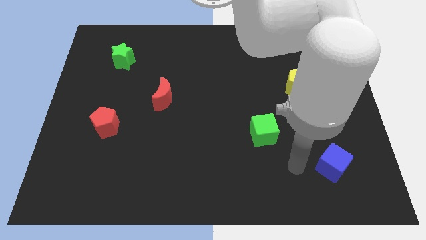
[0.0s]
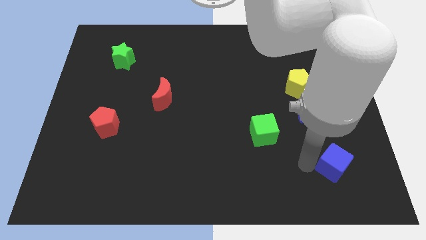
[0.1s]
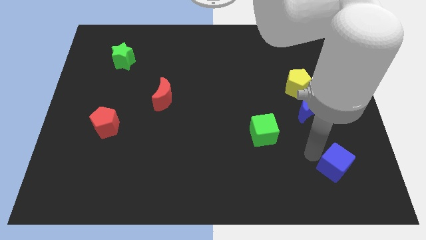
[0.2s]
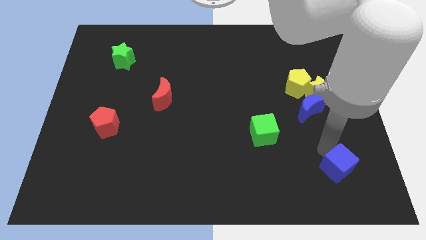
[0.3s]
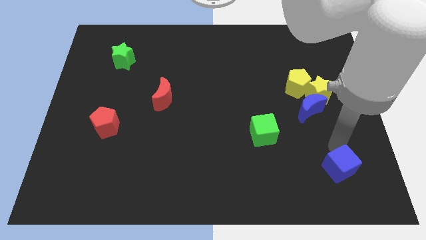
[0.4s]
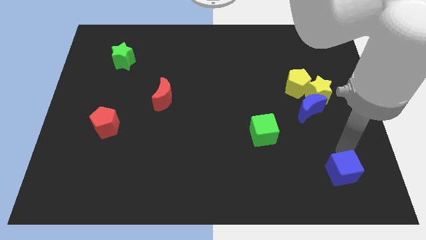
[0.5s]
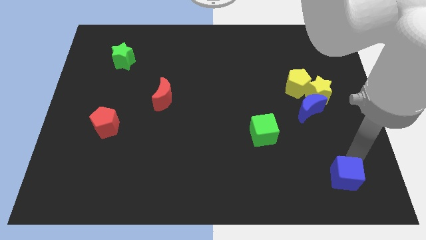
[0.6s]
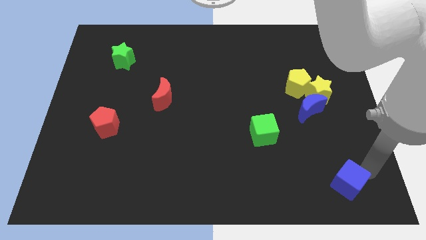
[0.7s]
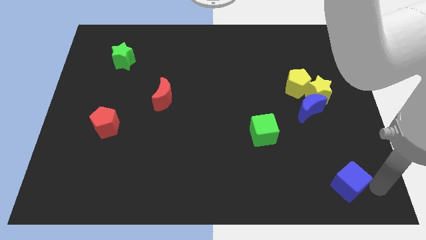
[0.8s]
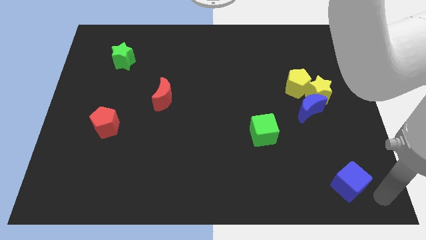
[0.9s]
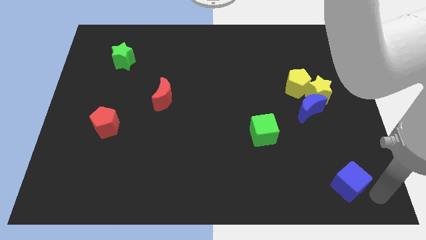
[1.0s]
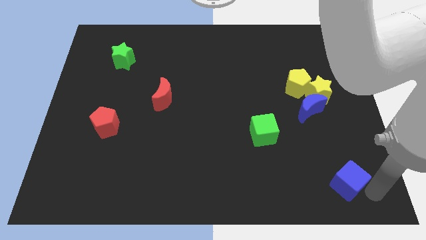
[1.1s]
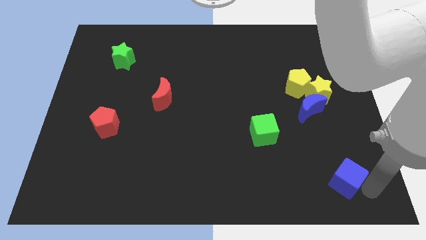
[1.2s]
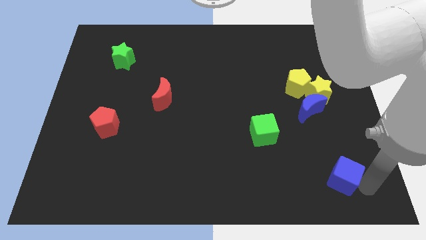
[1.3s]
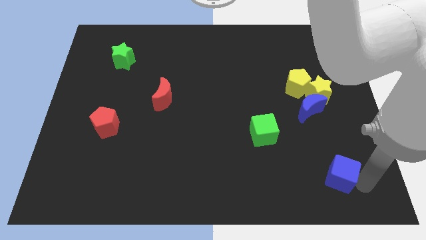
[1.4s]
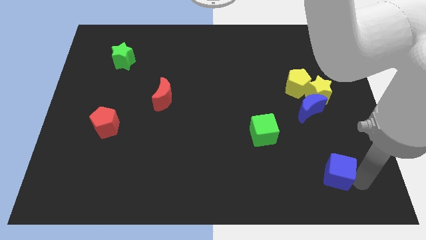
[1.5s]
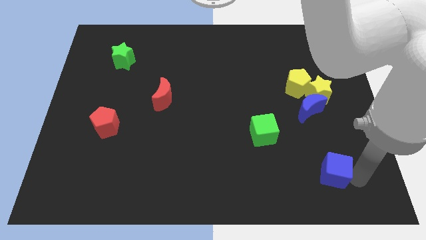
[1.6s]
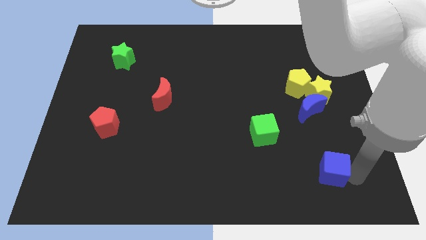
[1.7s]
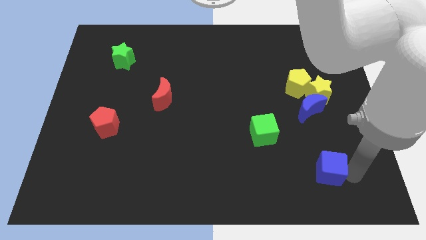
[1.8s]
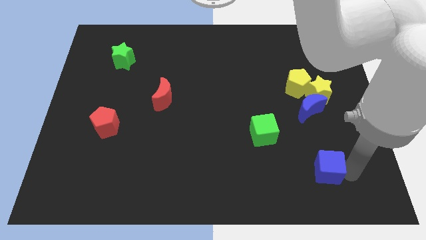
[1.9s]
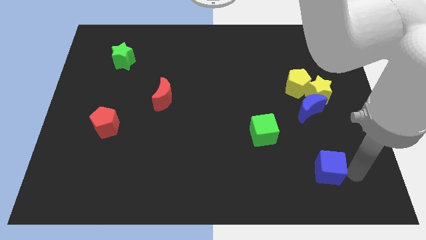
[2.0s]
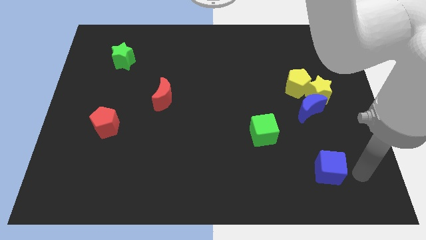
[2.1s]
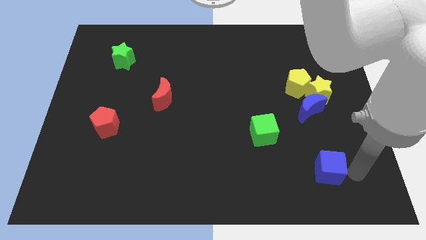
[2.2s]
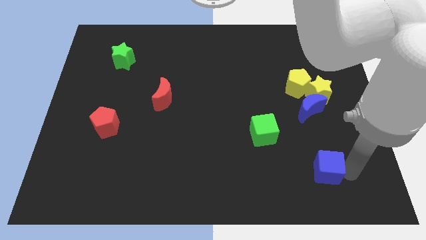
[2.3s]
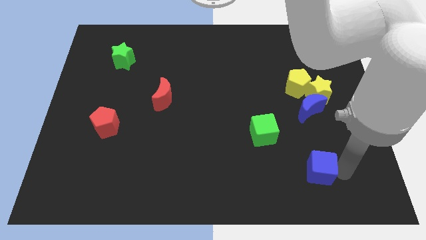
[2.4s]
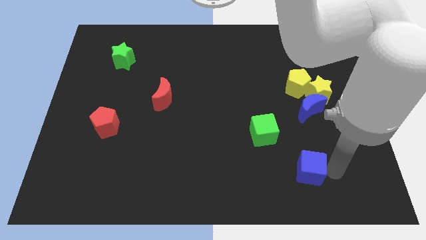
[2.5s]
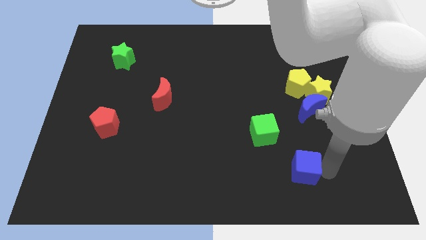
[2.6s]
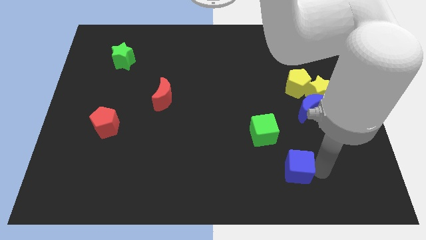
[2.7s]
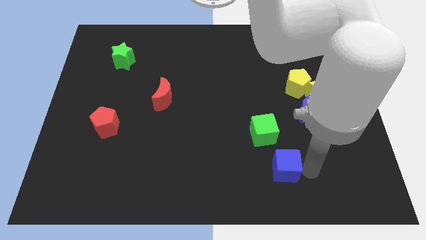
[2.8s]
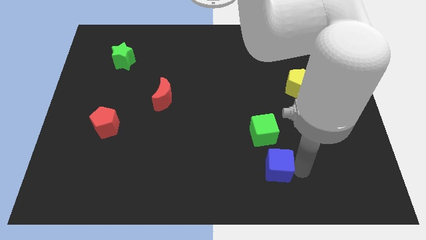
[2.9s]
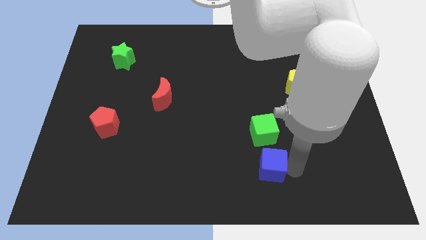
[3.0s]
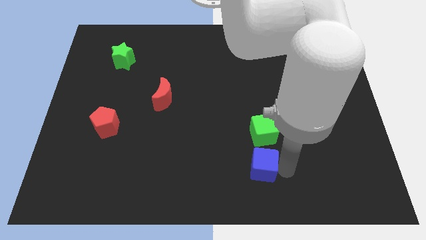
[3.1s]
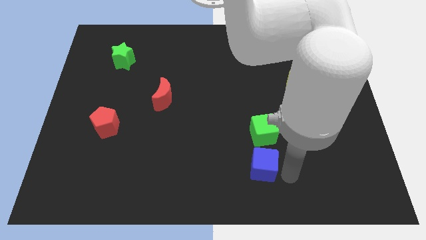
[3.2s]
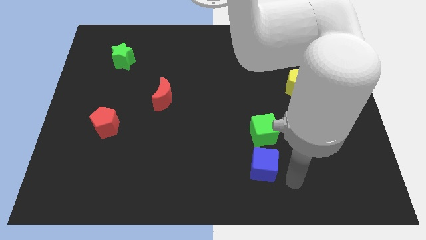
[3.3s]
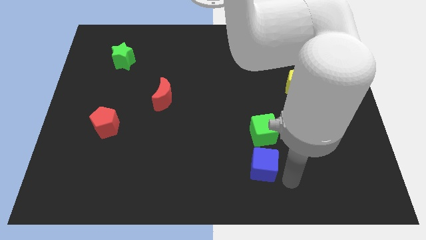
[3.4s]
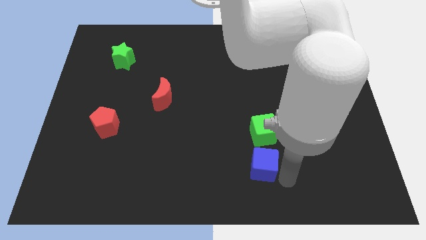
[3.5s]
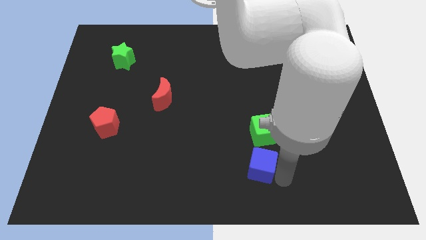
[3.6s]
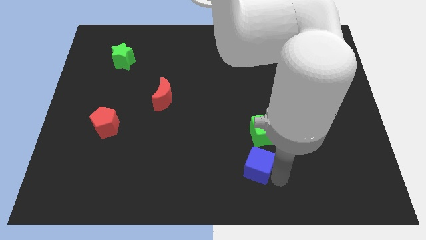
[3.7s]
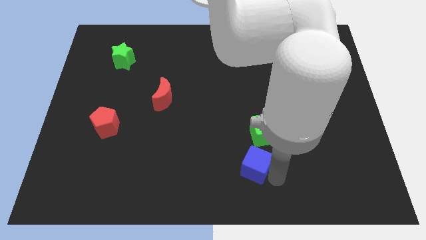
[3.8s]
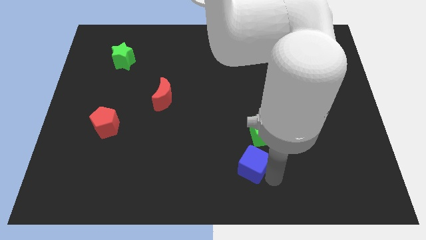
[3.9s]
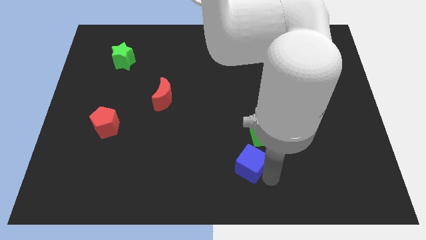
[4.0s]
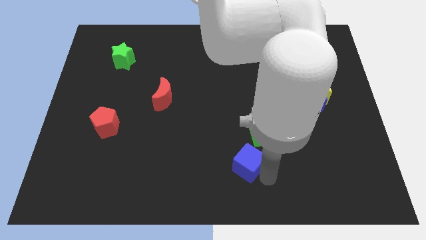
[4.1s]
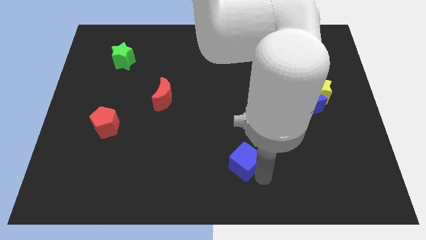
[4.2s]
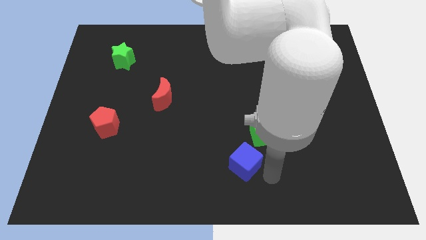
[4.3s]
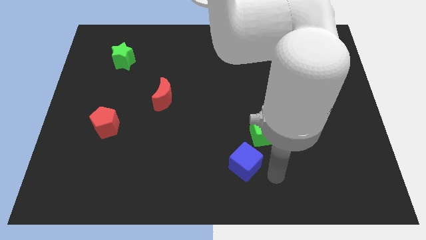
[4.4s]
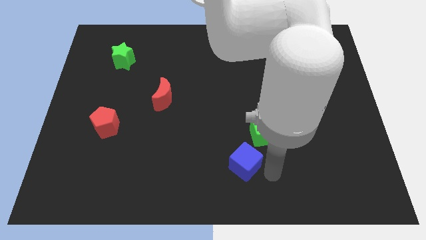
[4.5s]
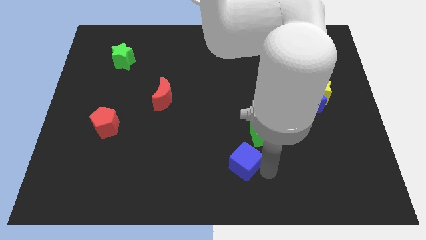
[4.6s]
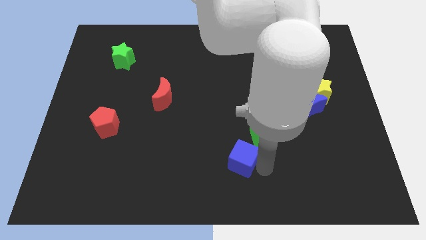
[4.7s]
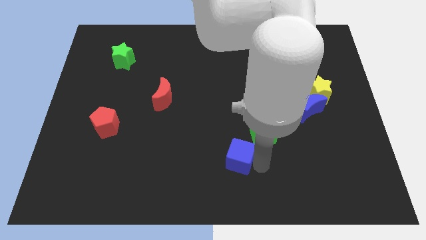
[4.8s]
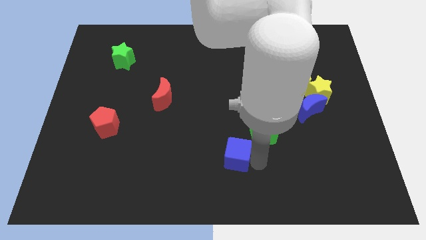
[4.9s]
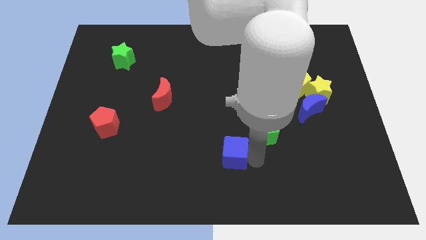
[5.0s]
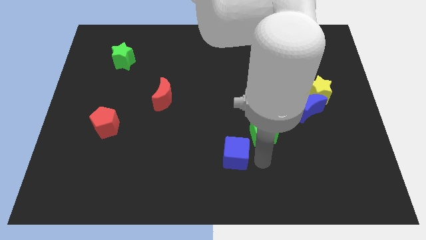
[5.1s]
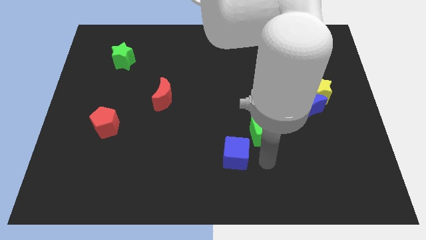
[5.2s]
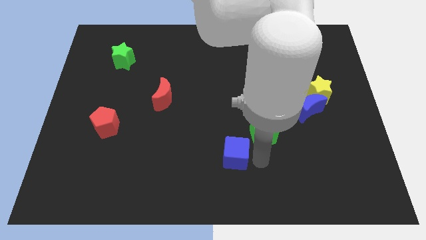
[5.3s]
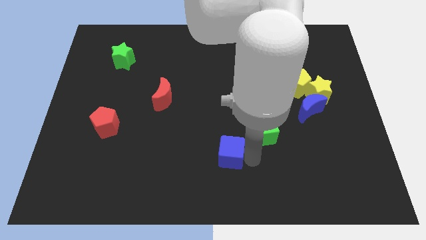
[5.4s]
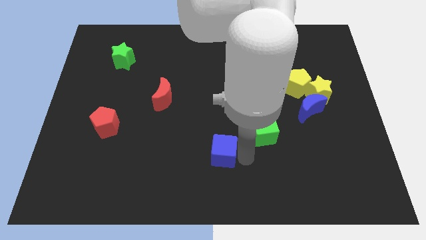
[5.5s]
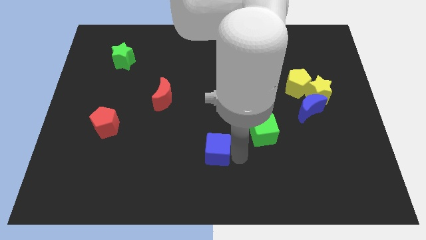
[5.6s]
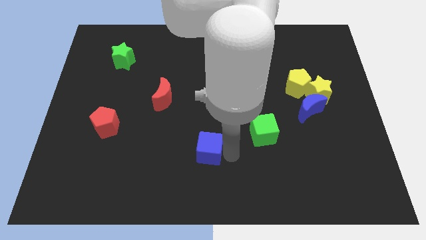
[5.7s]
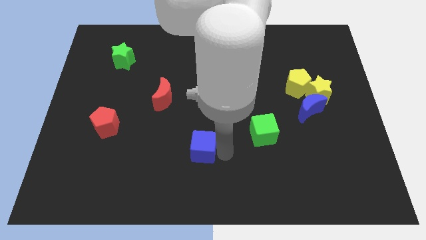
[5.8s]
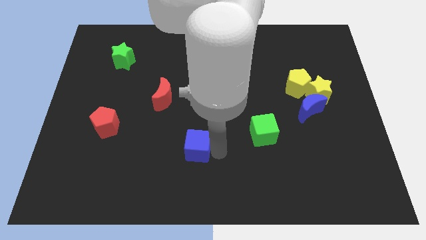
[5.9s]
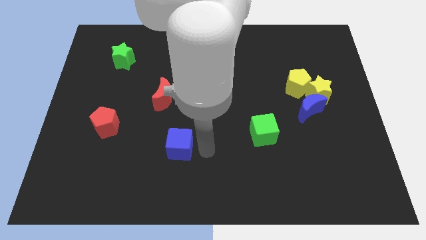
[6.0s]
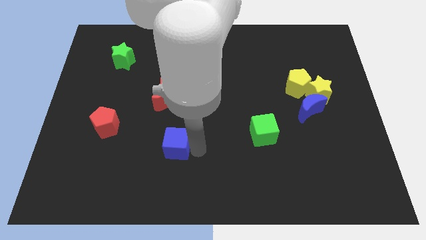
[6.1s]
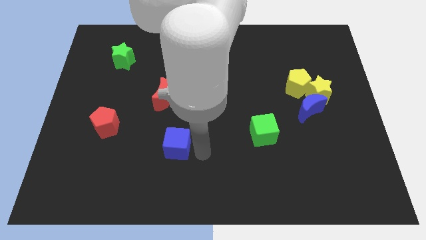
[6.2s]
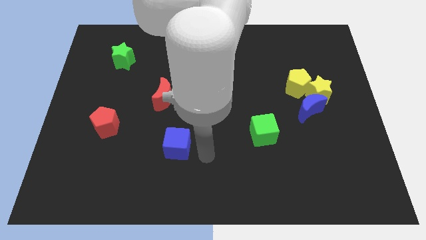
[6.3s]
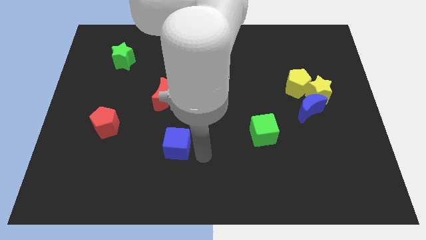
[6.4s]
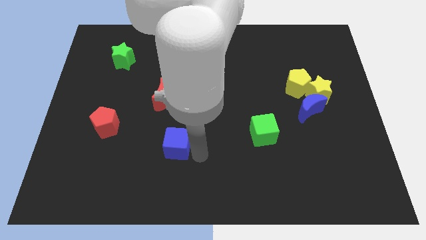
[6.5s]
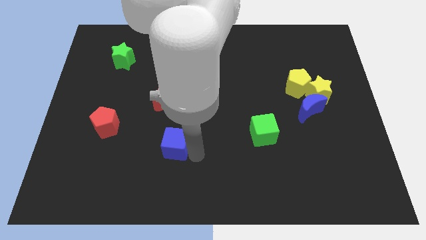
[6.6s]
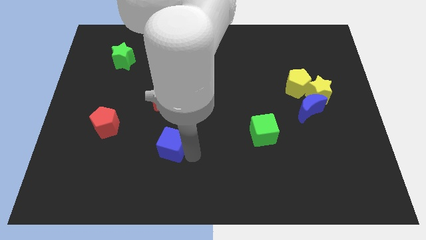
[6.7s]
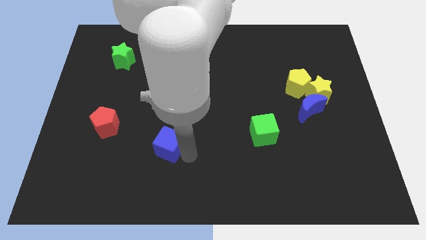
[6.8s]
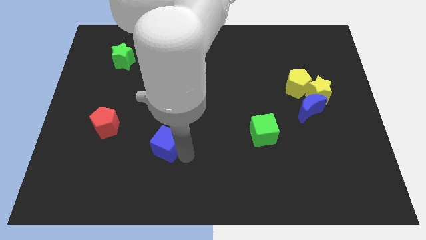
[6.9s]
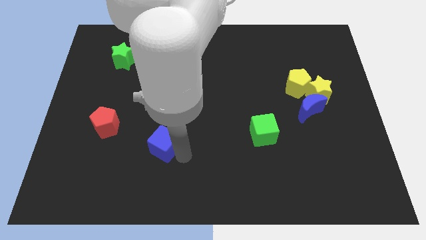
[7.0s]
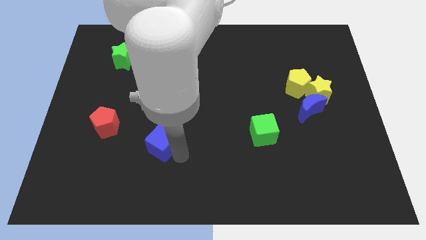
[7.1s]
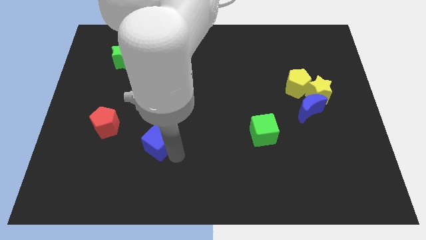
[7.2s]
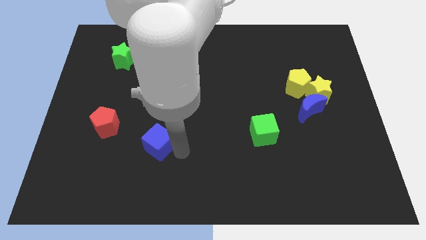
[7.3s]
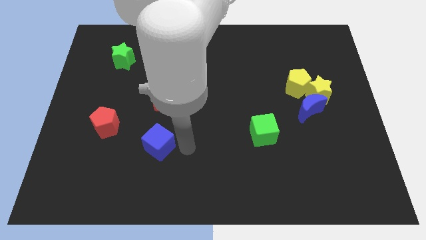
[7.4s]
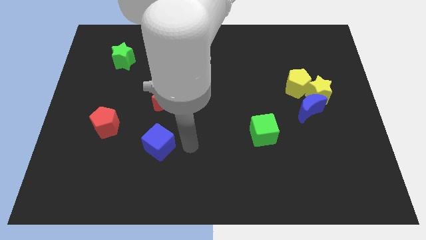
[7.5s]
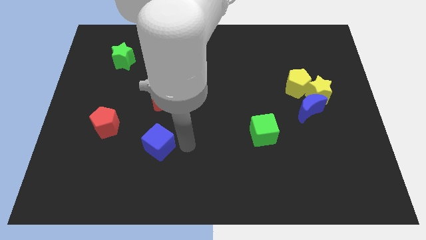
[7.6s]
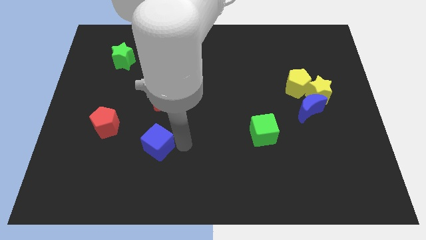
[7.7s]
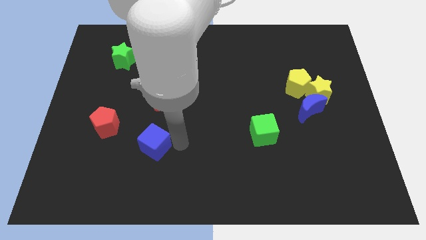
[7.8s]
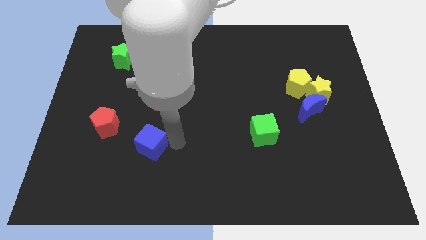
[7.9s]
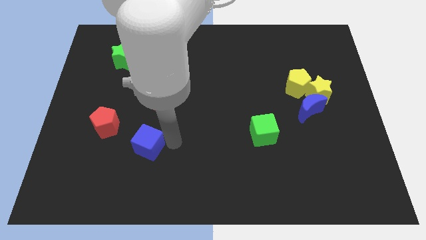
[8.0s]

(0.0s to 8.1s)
push the blue cube to the bottom right of the red pentagon
